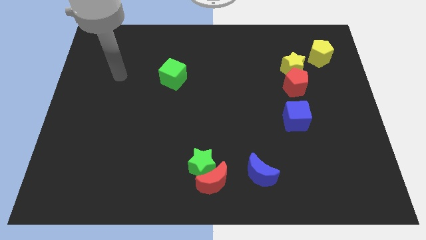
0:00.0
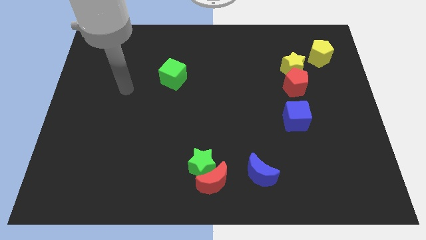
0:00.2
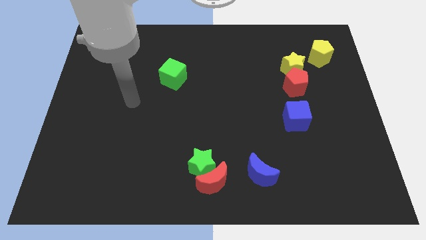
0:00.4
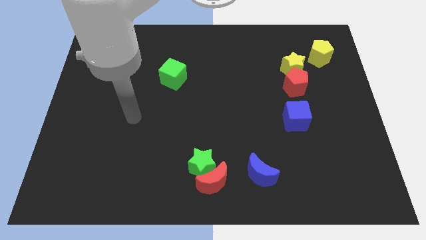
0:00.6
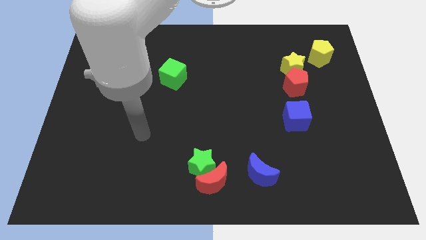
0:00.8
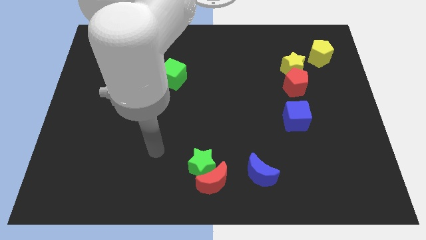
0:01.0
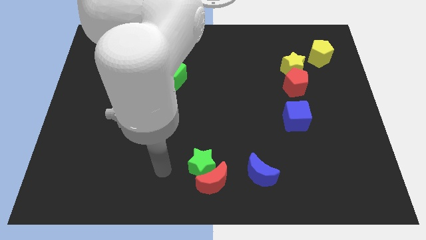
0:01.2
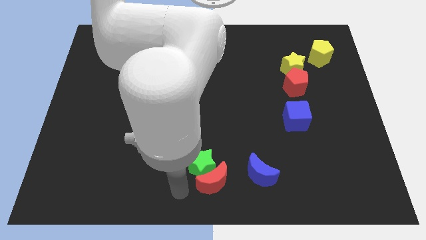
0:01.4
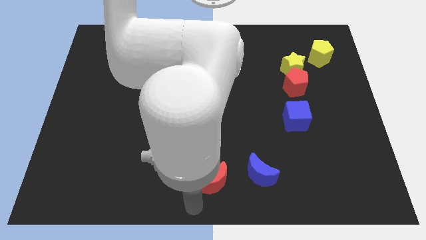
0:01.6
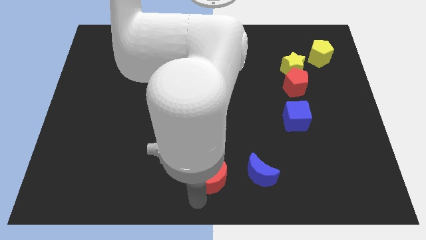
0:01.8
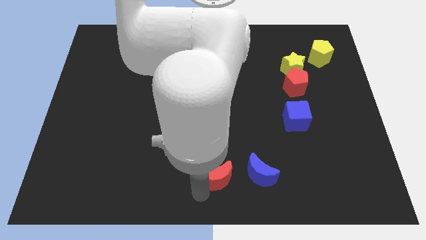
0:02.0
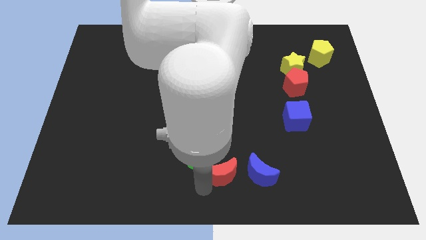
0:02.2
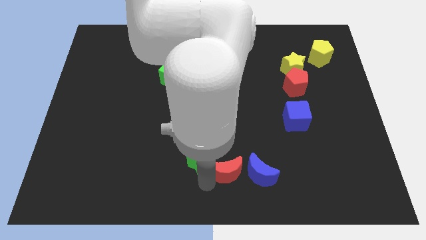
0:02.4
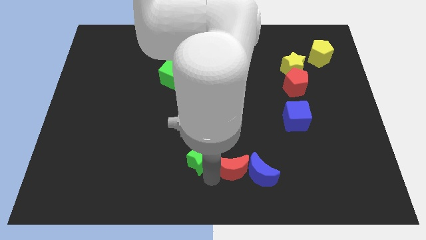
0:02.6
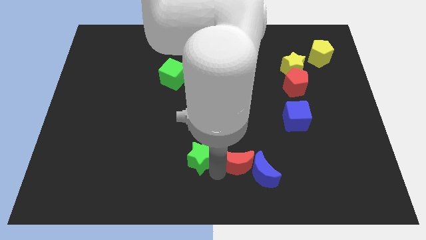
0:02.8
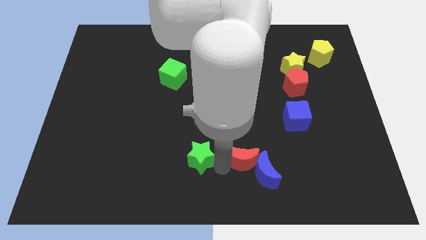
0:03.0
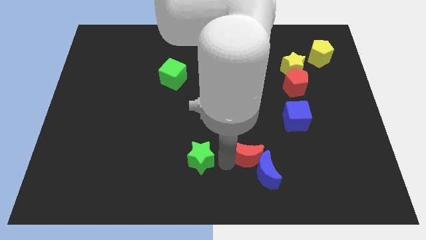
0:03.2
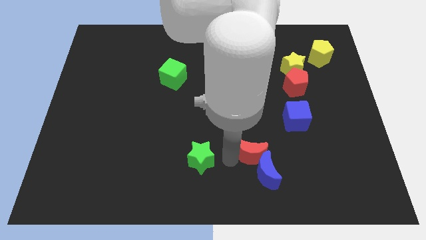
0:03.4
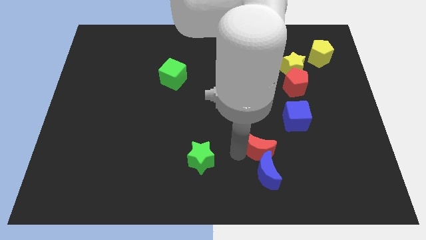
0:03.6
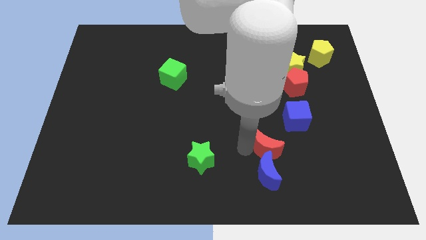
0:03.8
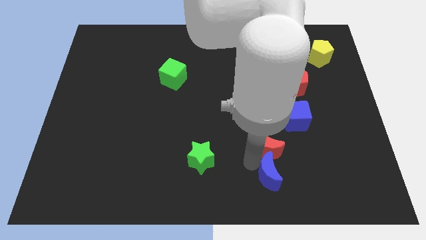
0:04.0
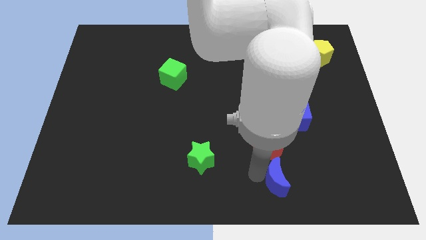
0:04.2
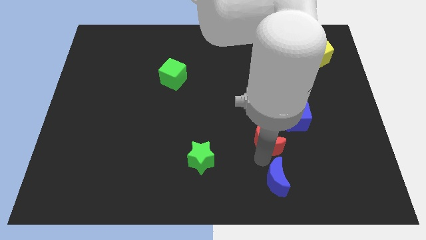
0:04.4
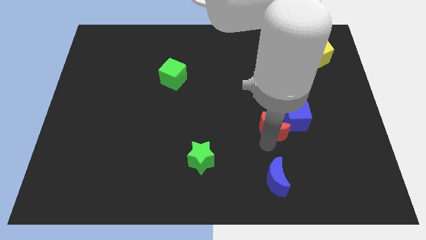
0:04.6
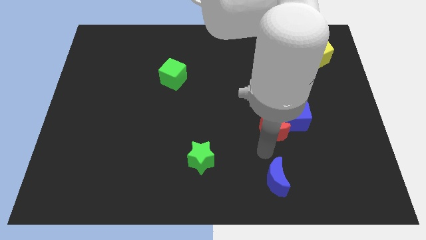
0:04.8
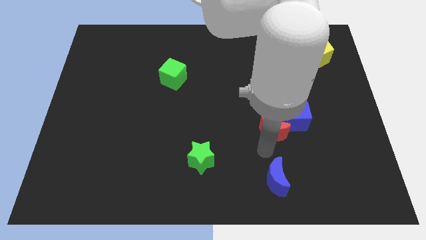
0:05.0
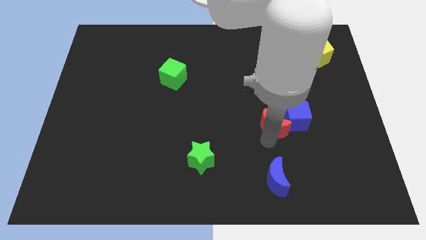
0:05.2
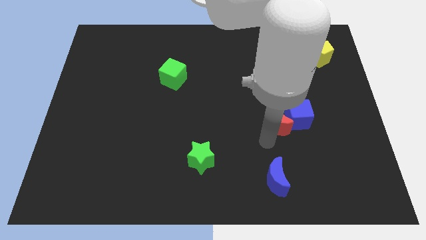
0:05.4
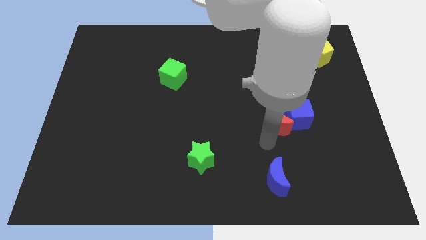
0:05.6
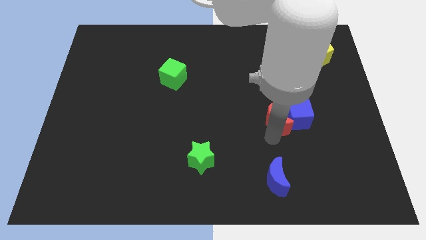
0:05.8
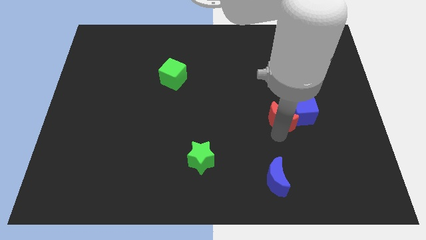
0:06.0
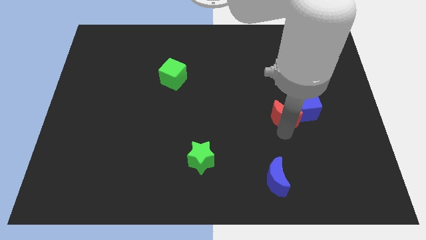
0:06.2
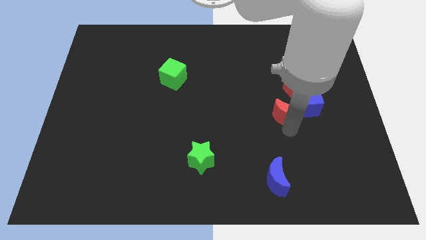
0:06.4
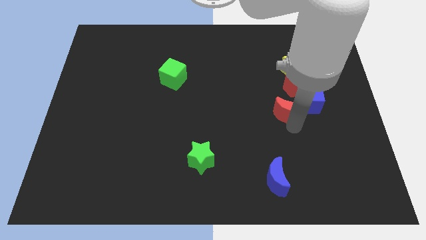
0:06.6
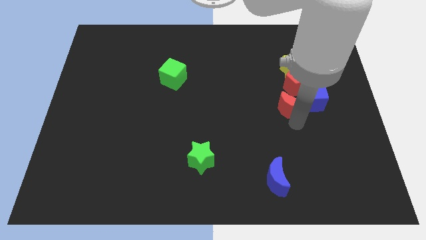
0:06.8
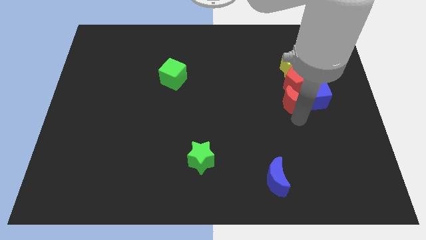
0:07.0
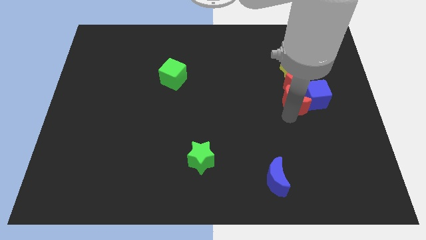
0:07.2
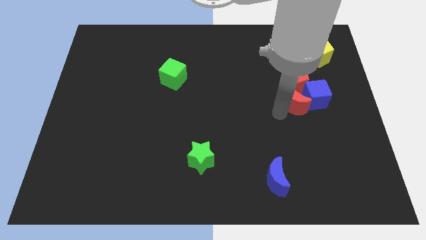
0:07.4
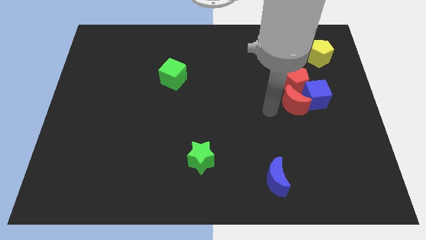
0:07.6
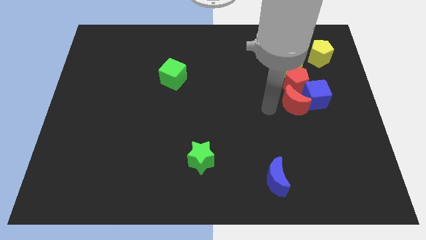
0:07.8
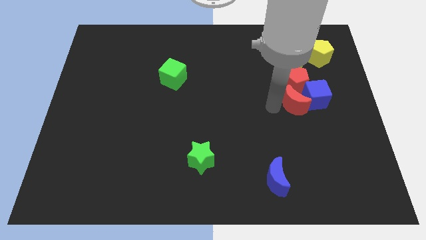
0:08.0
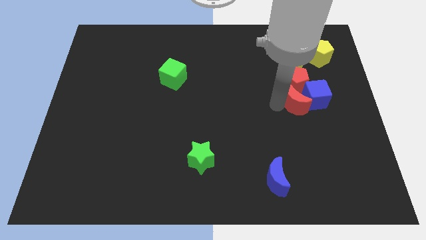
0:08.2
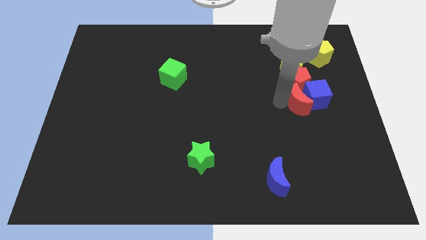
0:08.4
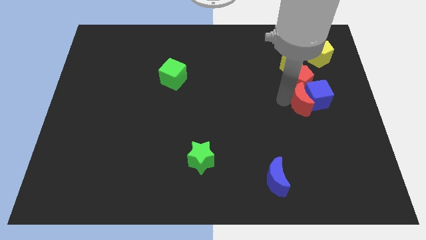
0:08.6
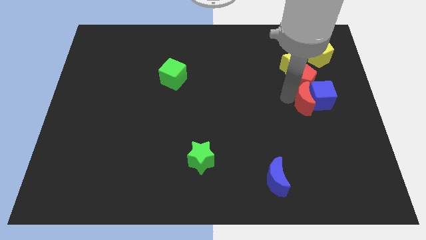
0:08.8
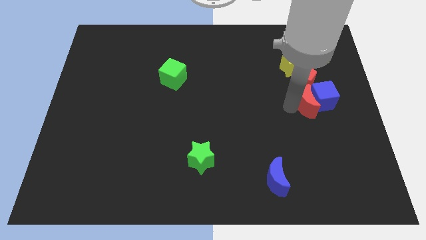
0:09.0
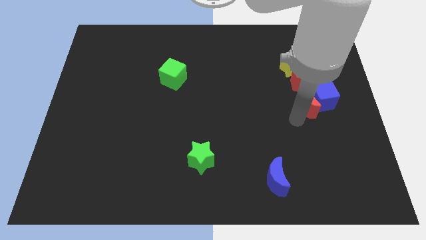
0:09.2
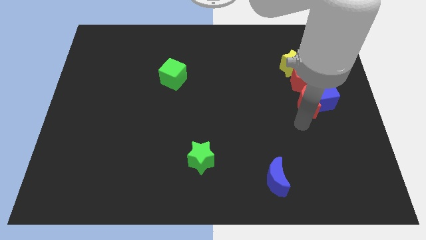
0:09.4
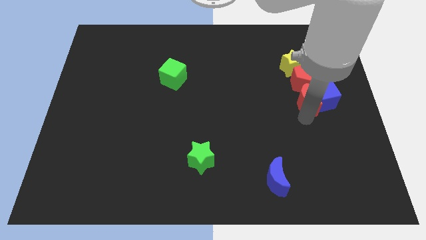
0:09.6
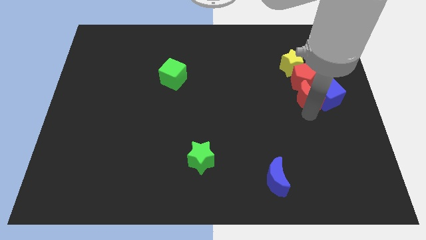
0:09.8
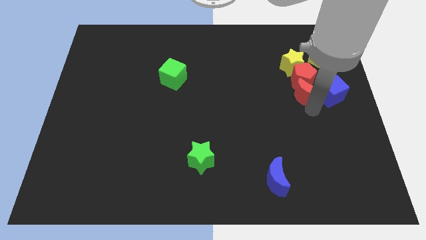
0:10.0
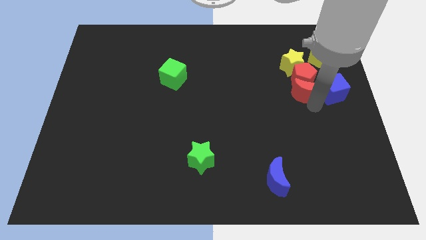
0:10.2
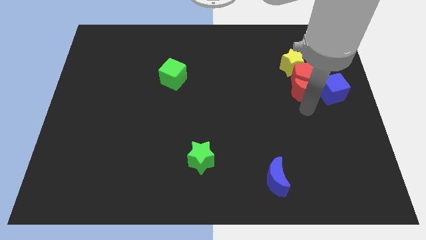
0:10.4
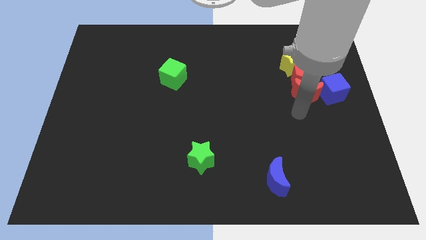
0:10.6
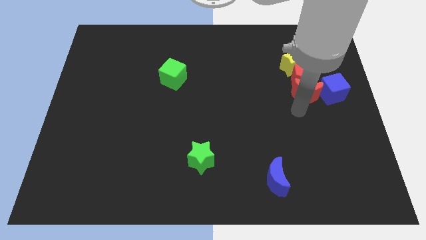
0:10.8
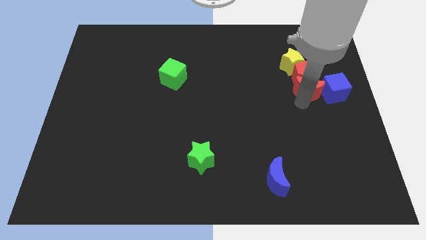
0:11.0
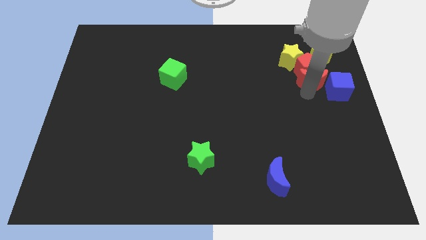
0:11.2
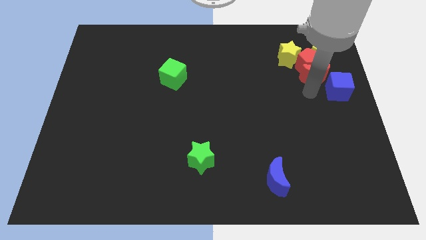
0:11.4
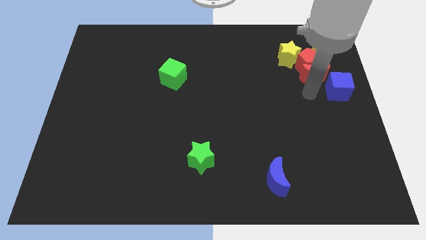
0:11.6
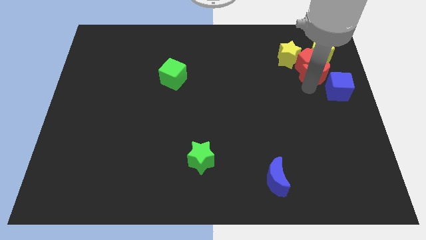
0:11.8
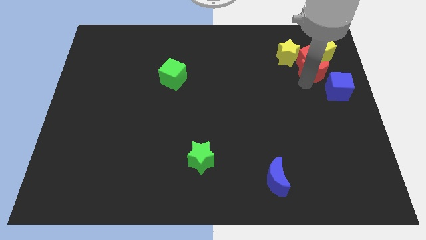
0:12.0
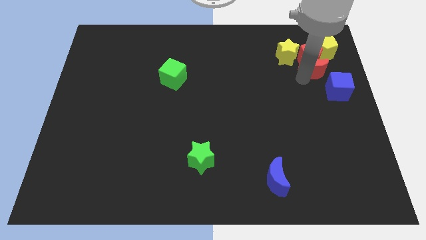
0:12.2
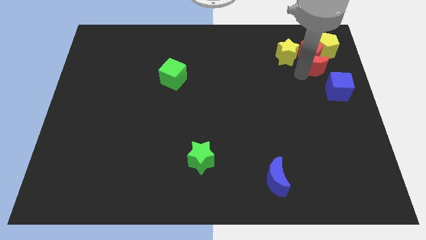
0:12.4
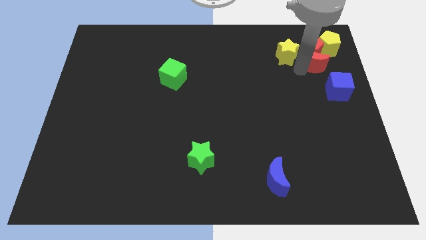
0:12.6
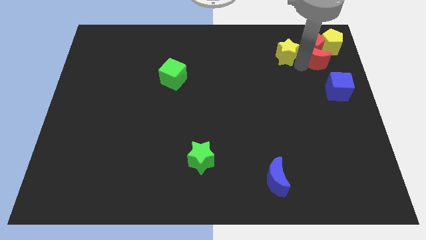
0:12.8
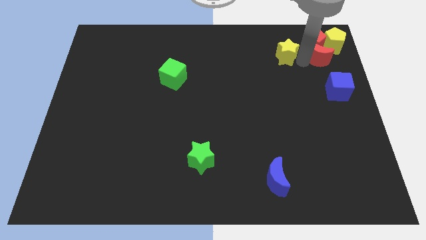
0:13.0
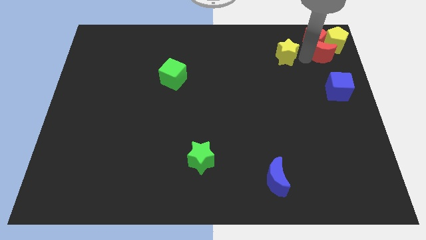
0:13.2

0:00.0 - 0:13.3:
move the red moon close to the yellow pentagon
